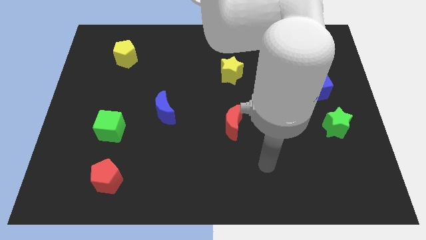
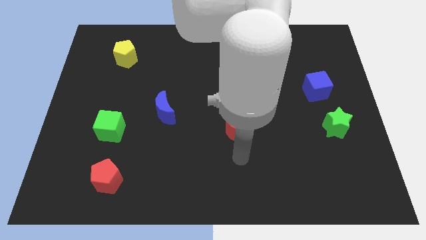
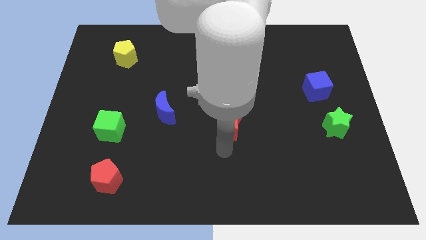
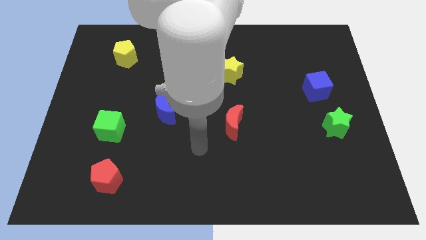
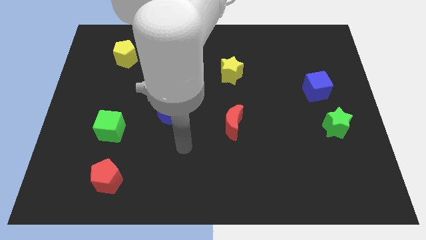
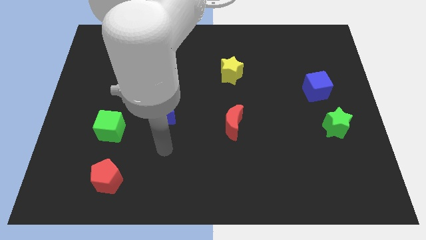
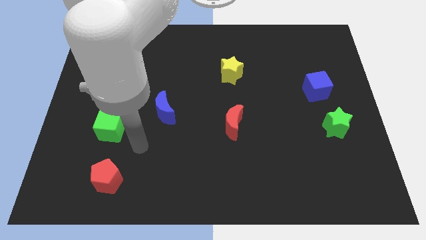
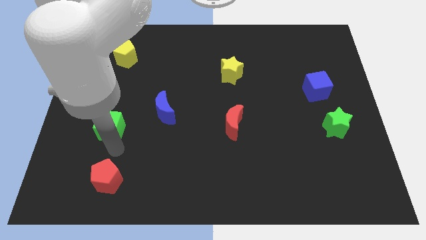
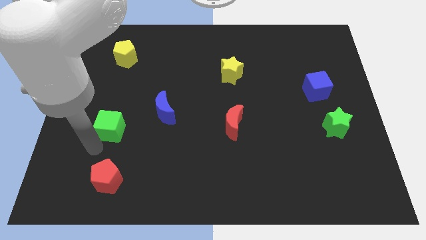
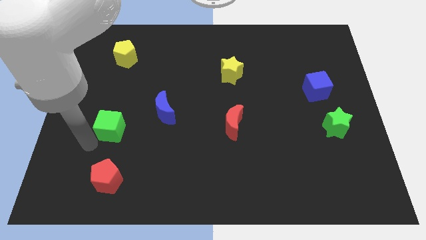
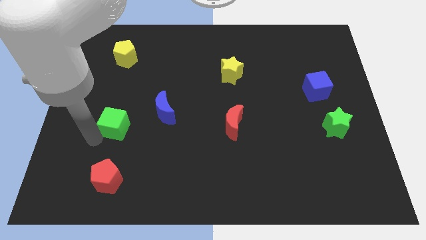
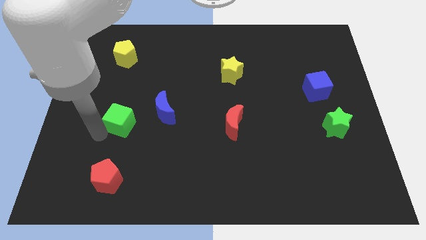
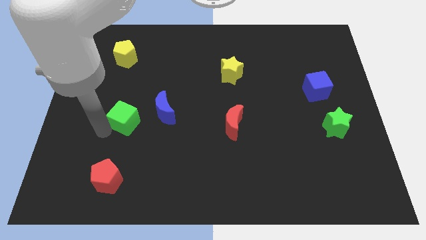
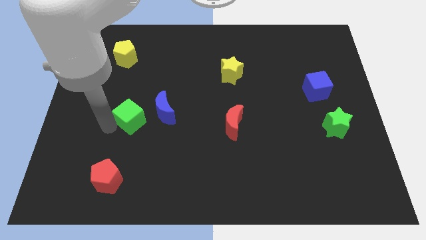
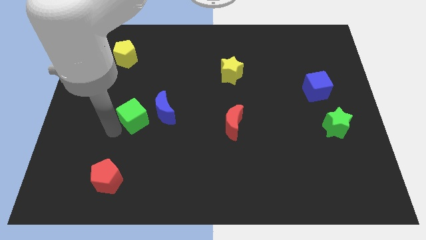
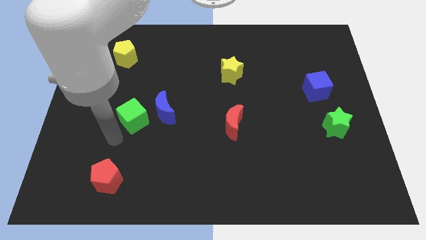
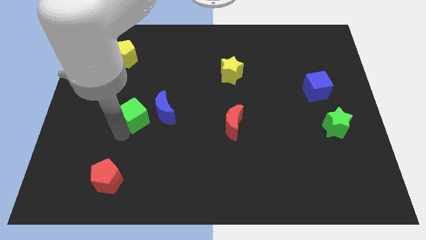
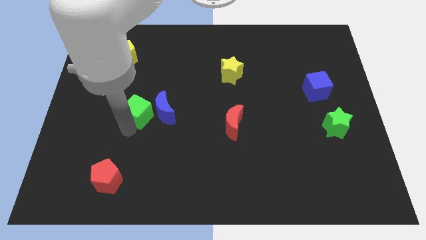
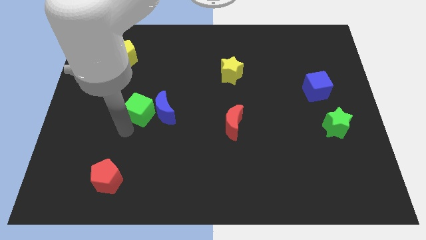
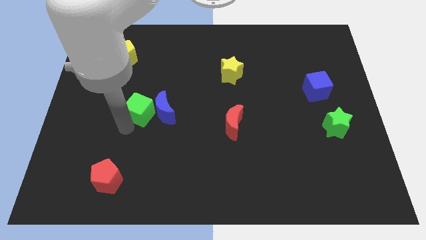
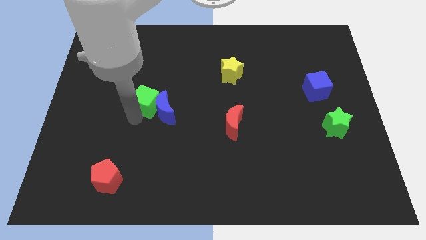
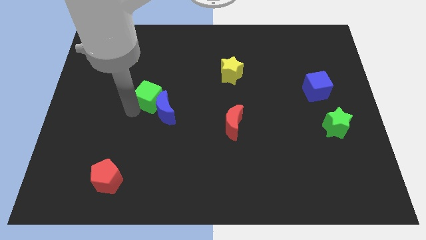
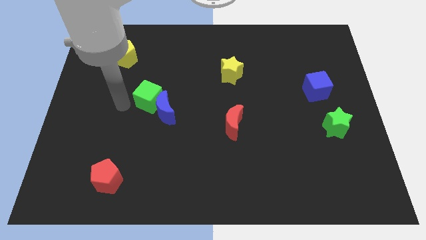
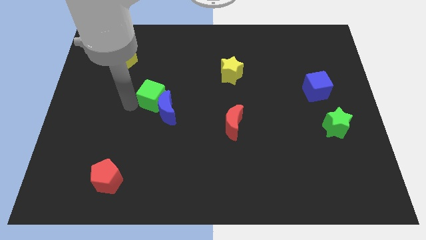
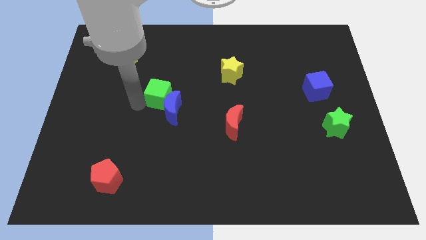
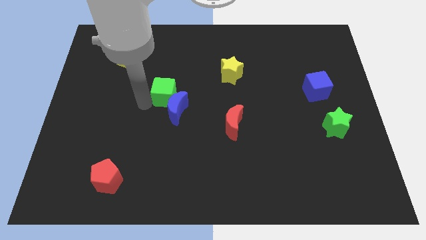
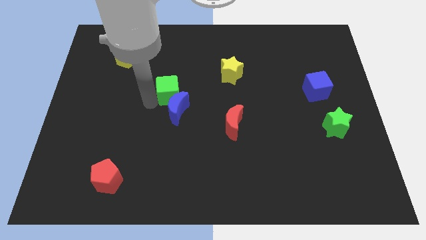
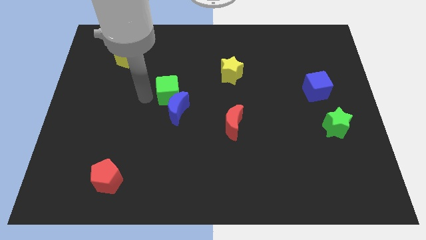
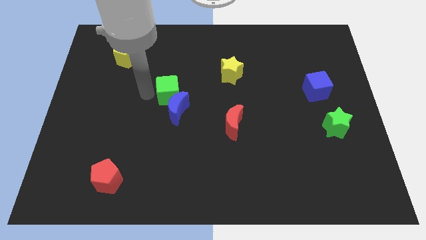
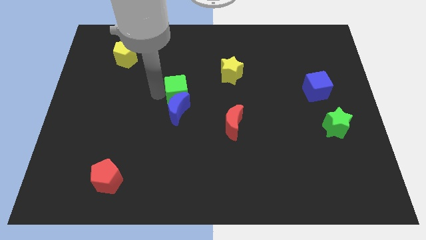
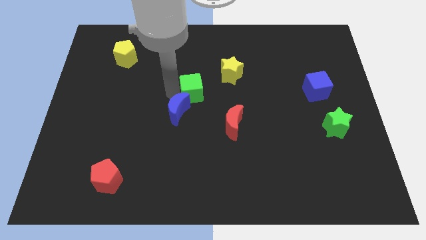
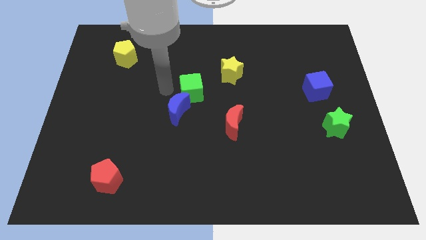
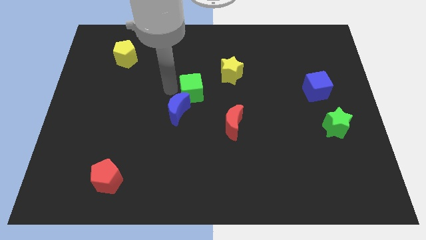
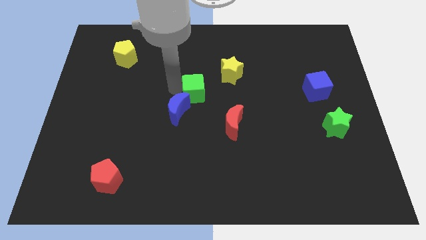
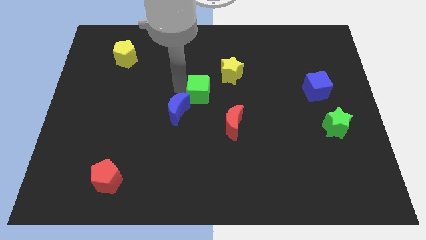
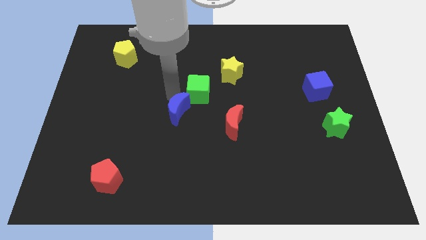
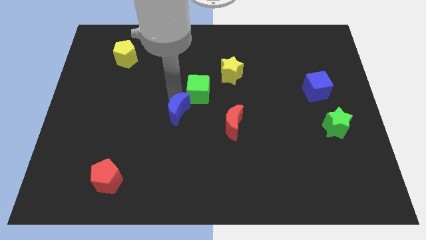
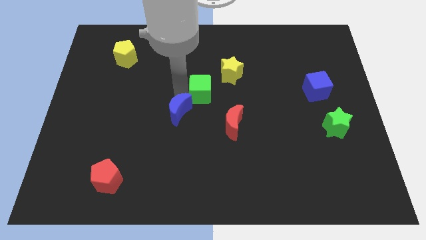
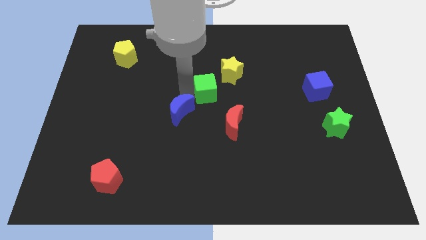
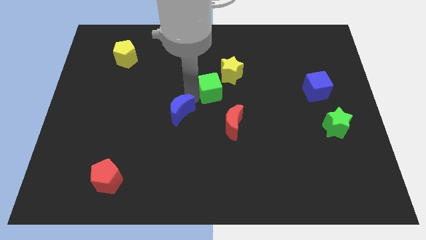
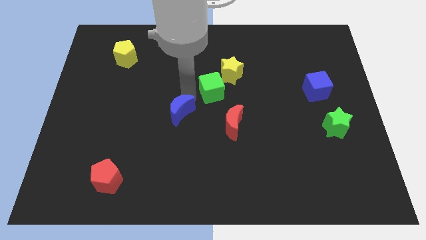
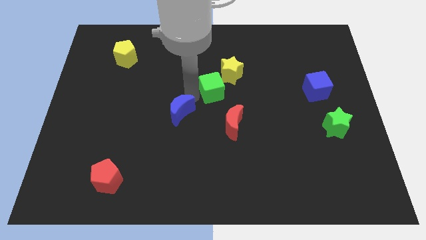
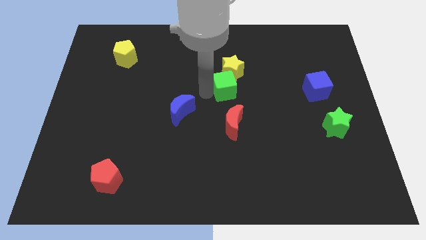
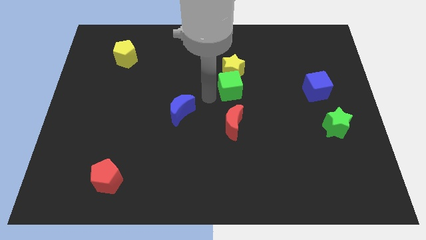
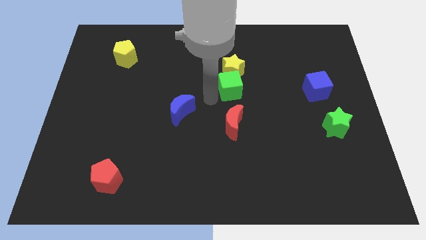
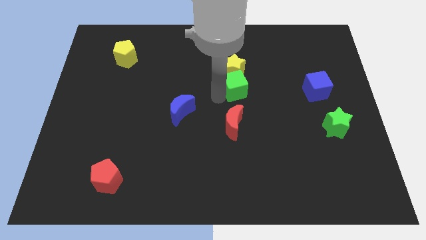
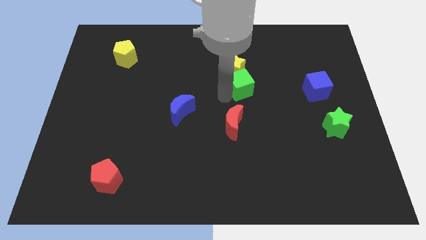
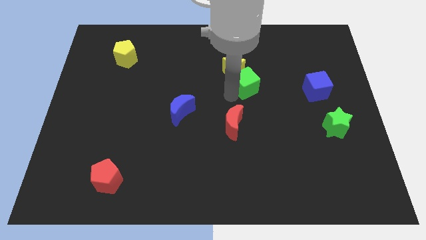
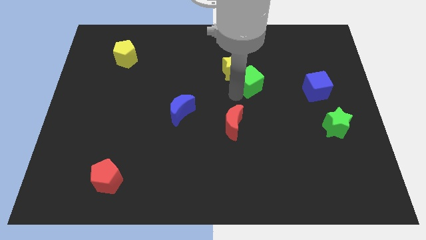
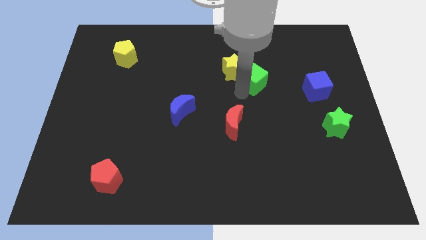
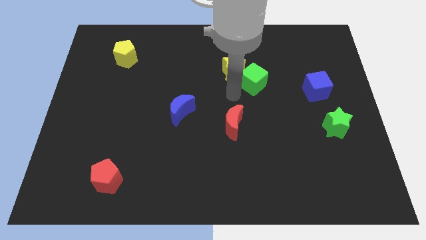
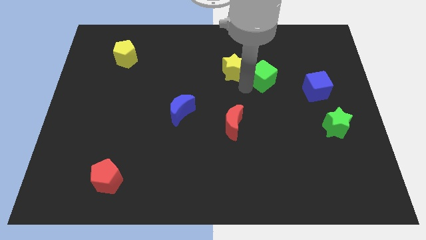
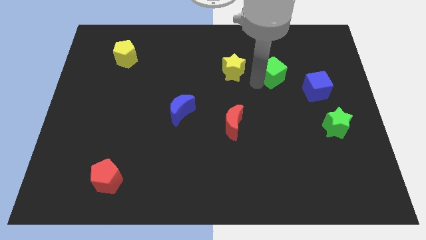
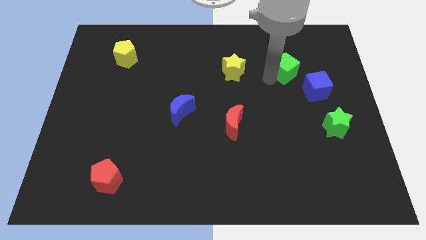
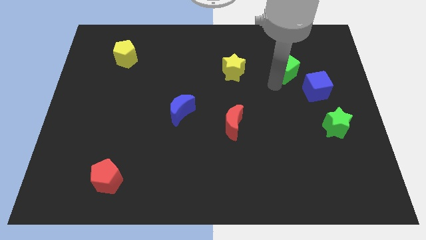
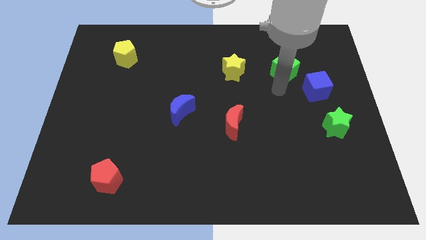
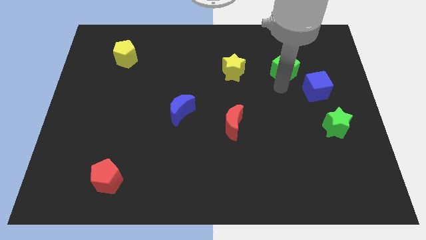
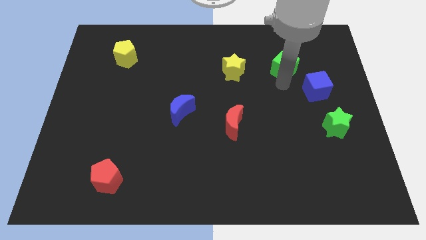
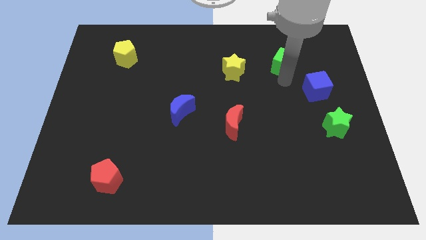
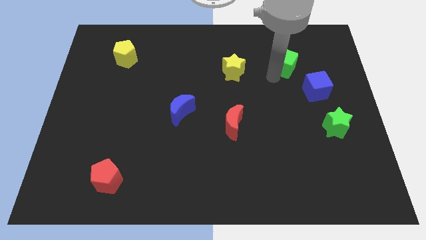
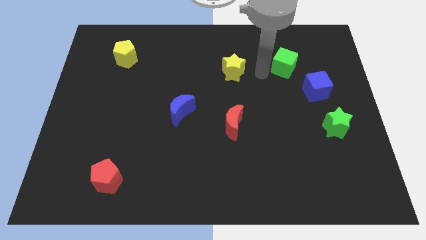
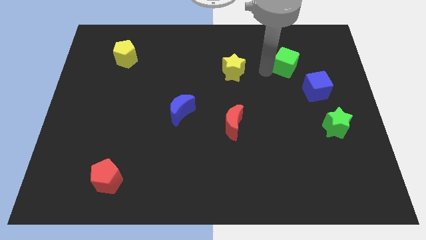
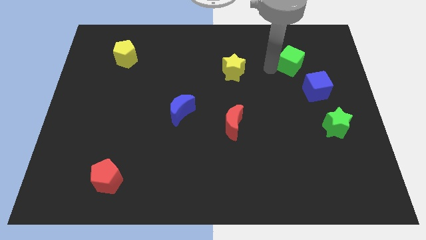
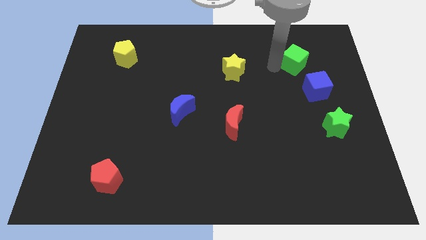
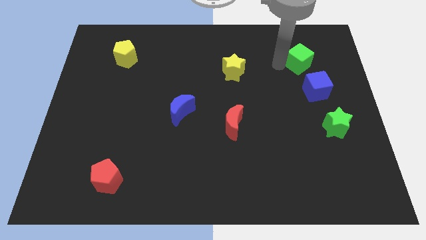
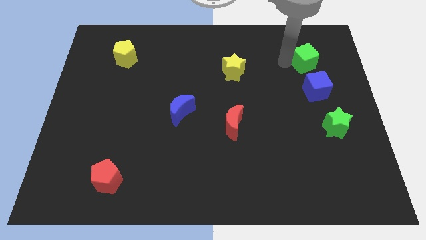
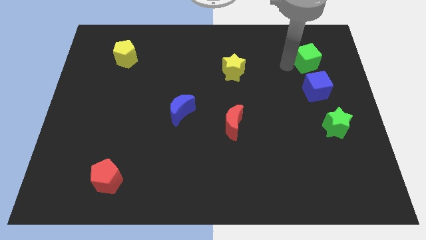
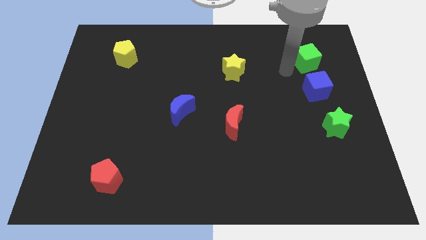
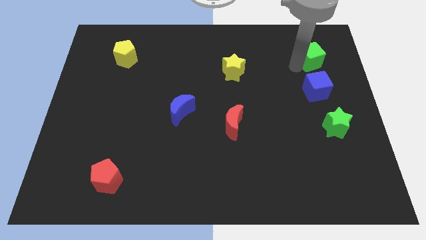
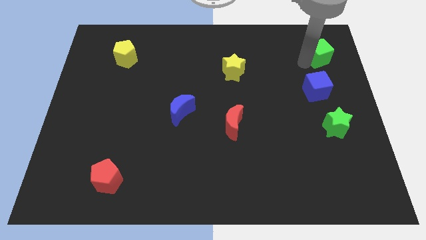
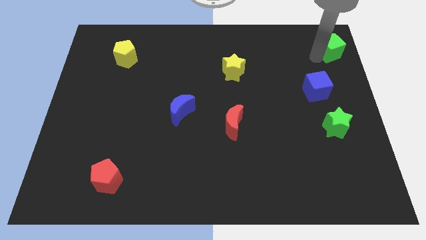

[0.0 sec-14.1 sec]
slide the green cube to the top right
